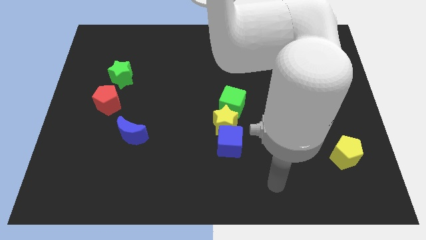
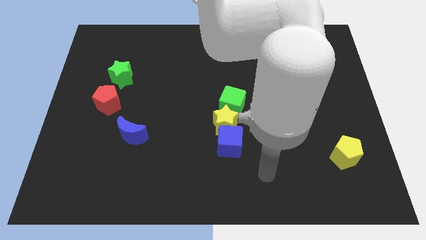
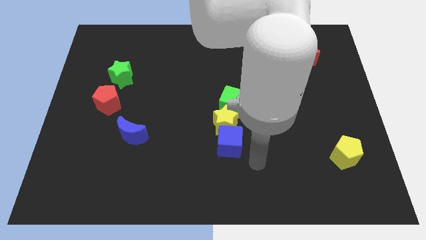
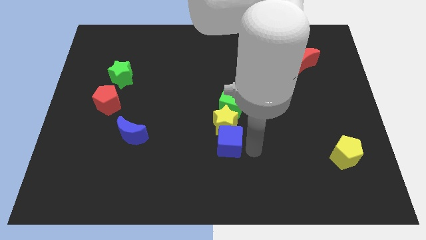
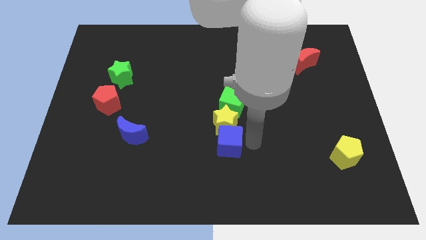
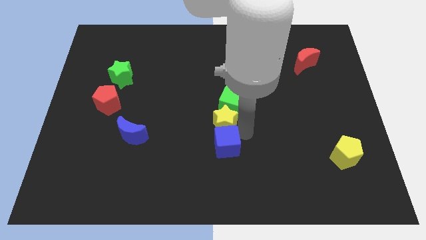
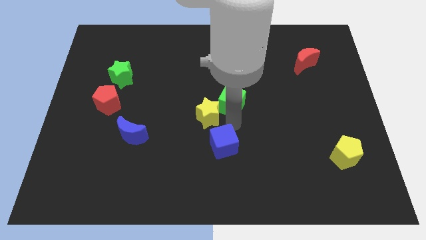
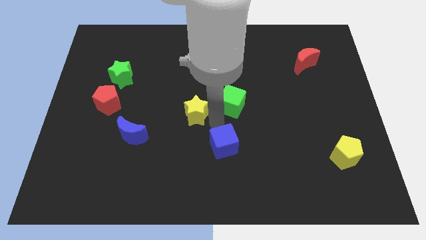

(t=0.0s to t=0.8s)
pull the blue cube apart from the yellow star

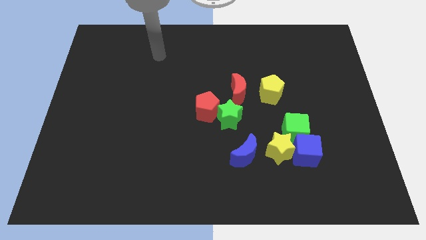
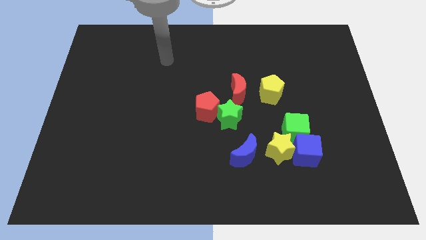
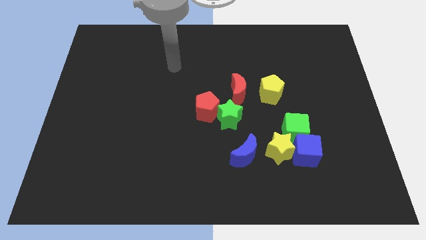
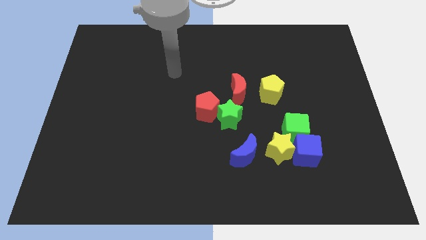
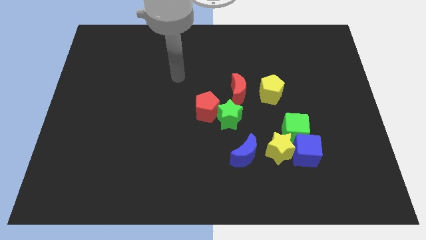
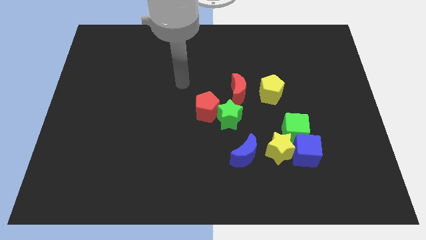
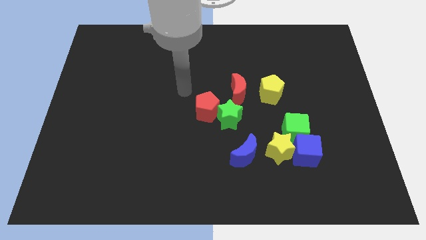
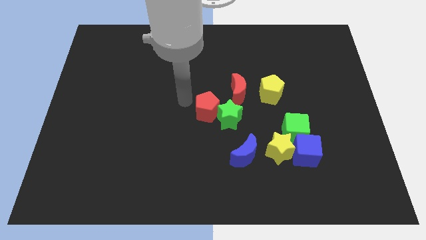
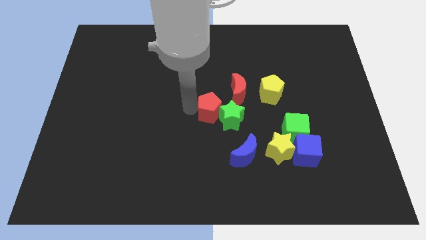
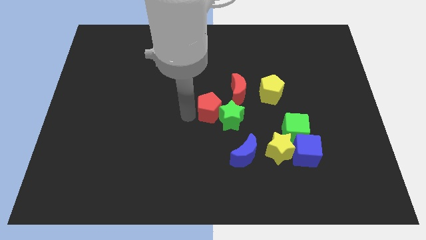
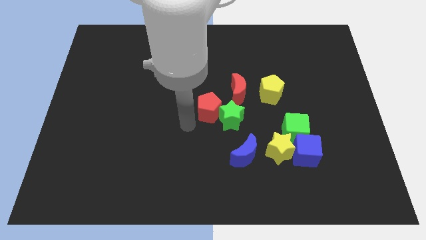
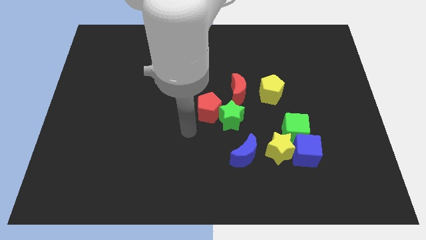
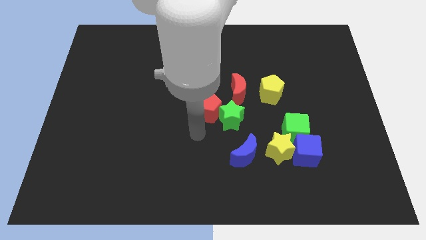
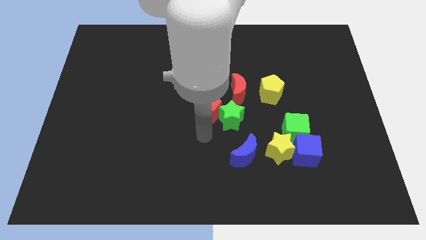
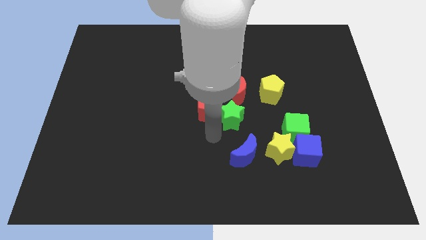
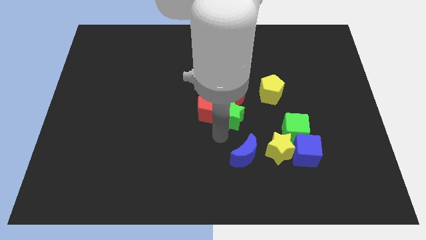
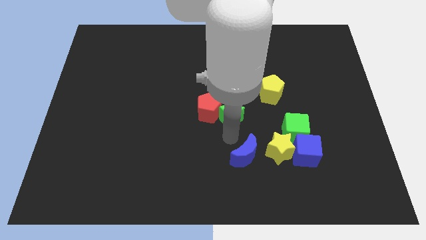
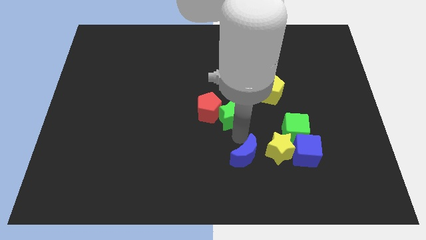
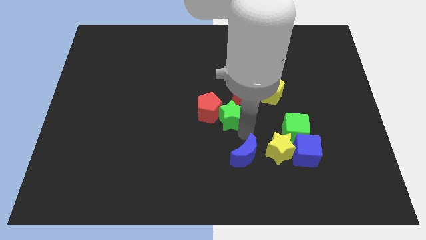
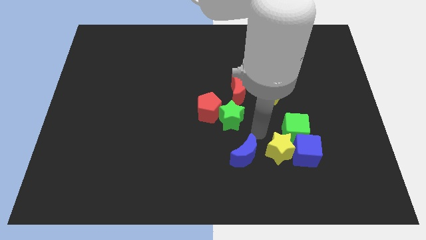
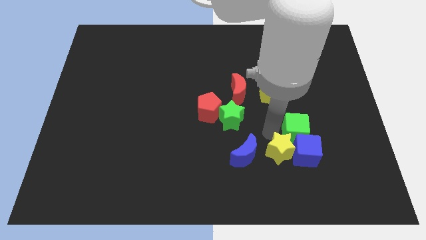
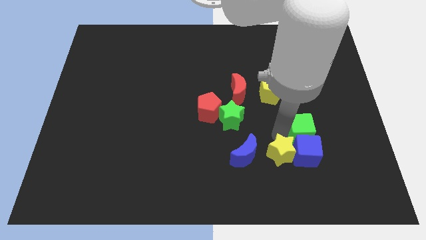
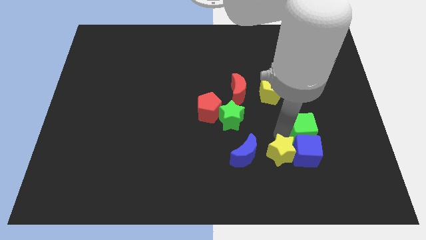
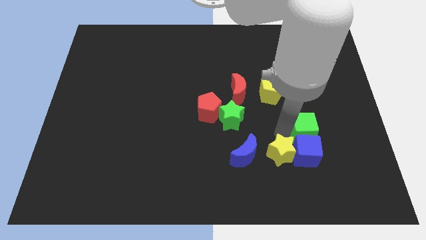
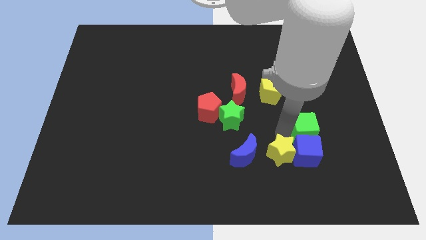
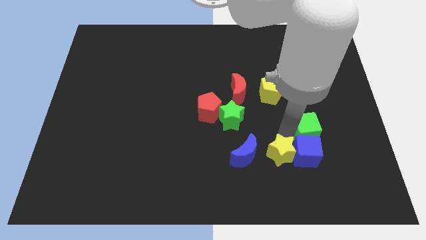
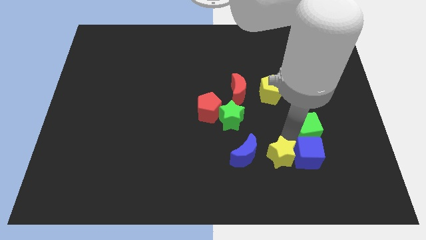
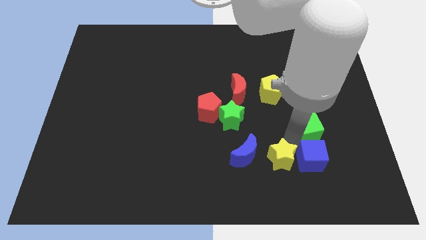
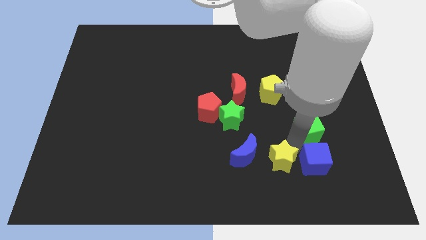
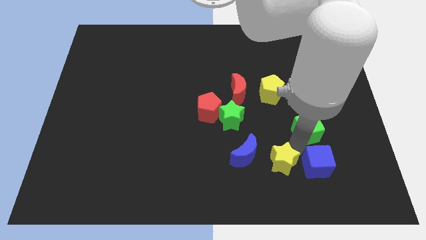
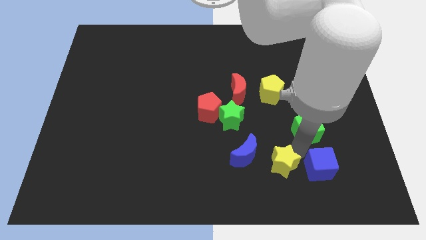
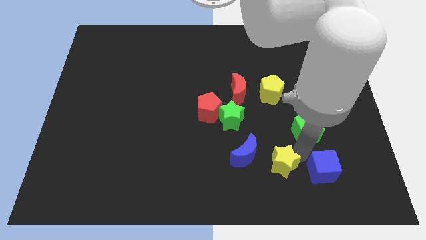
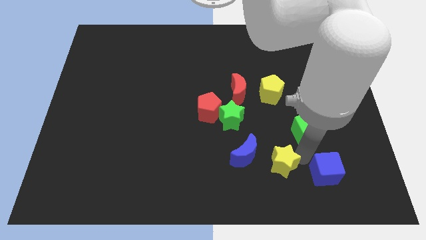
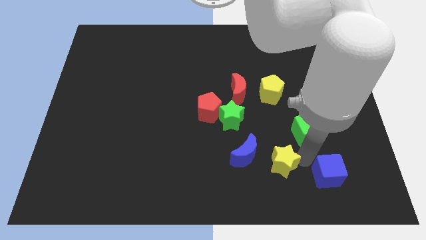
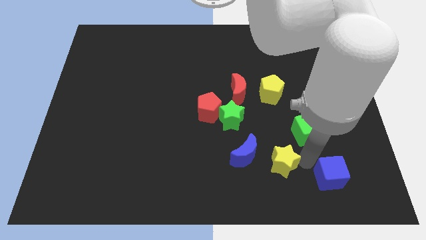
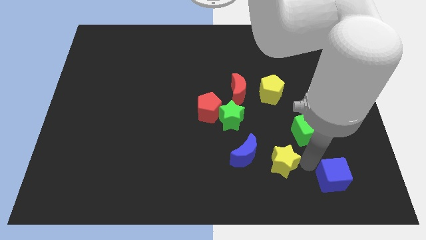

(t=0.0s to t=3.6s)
pull the blue cube apart from the yellow star and green cube

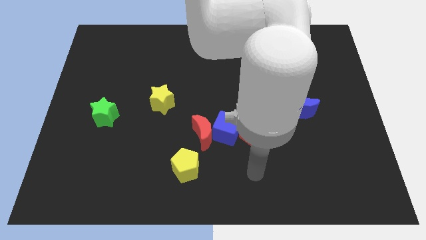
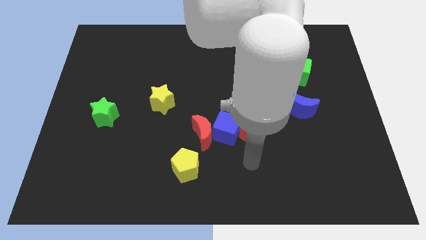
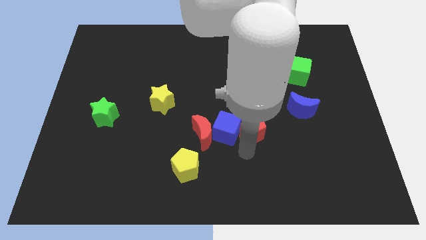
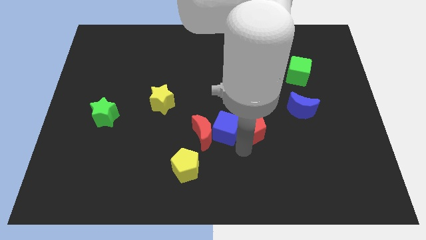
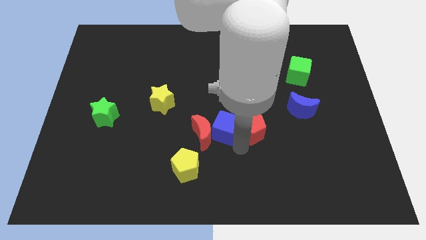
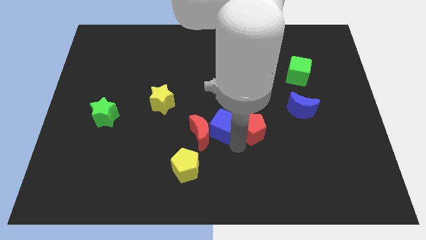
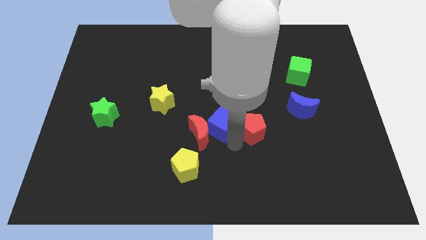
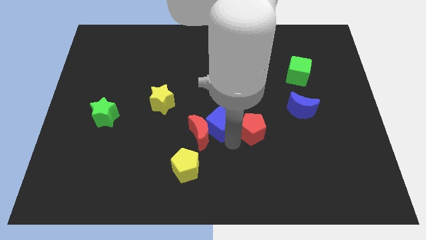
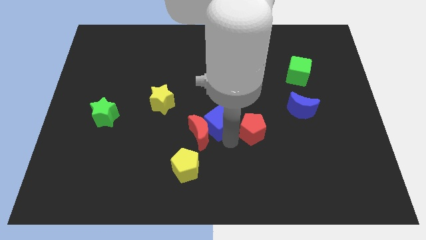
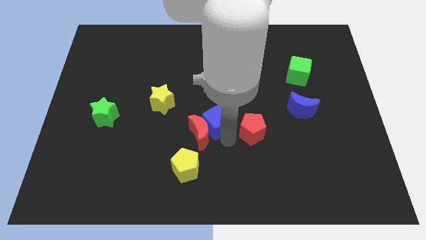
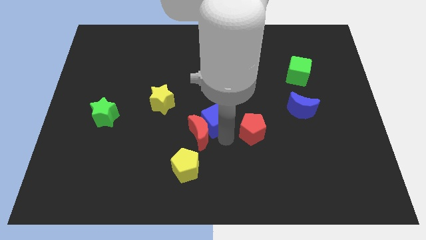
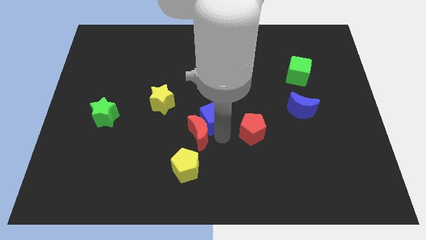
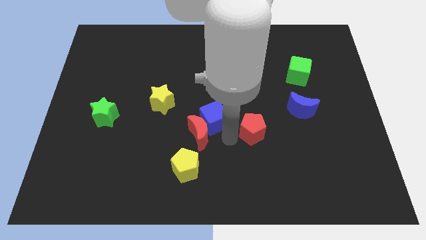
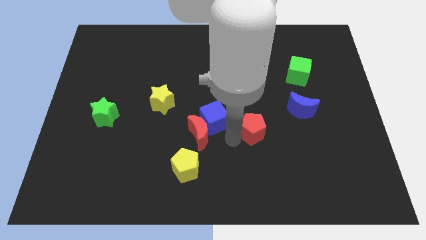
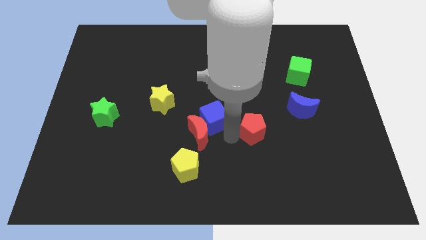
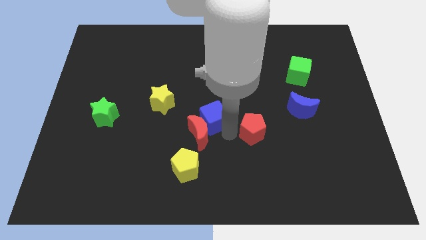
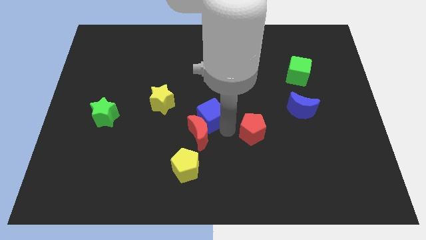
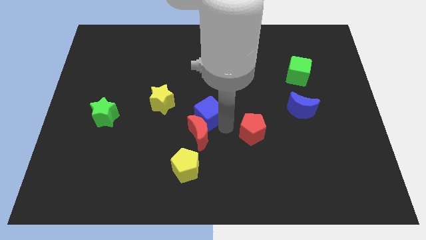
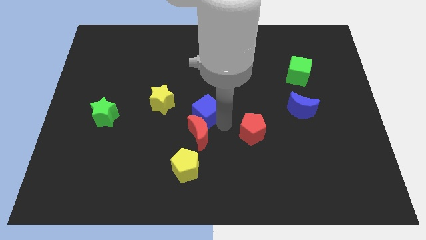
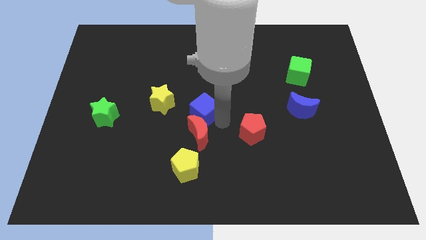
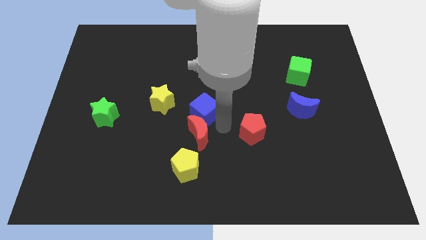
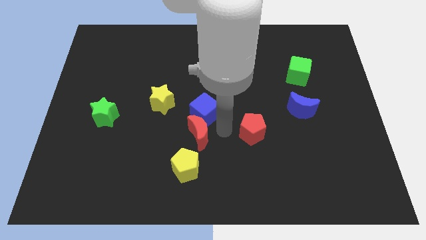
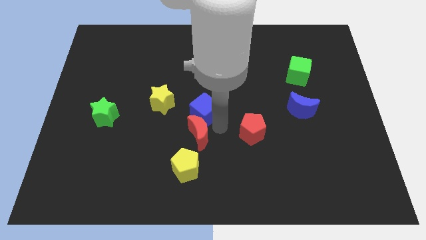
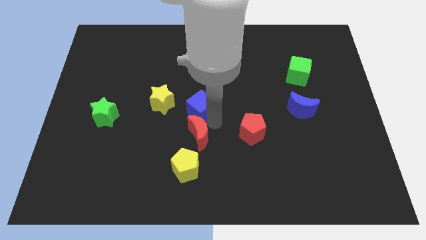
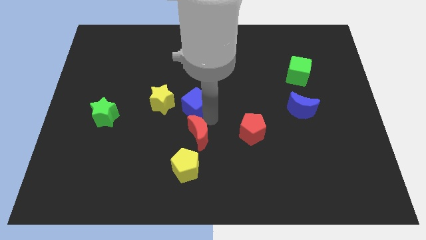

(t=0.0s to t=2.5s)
pull the blue cube apart from the red moon and red pentagon

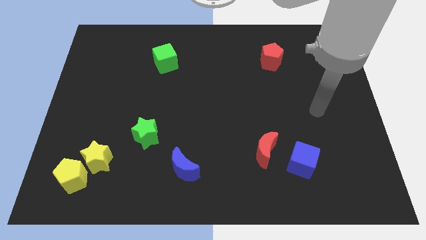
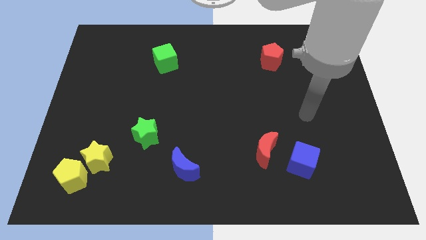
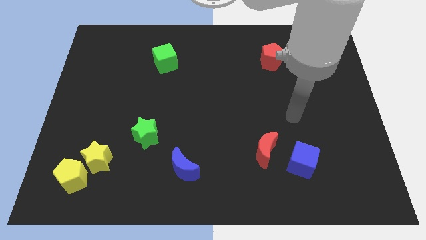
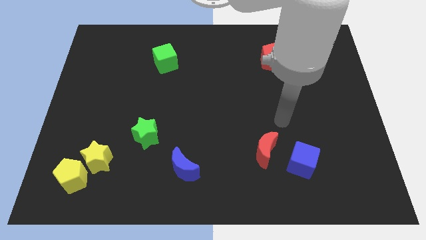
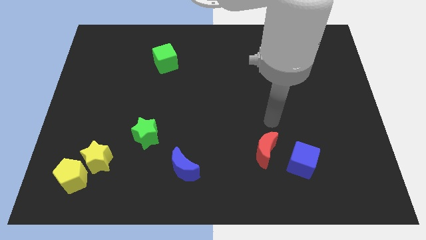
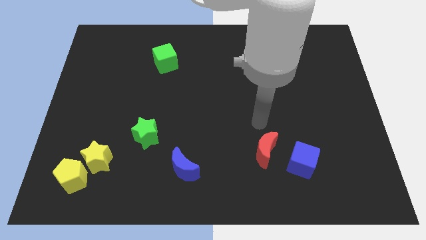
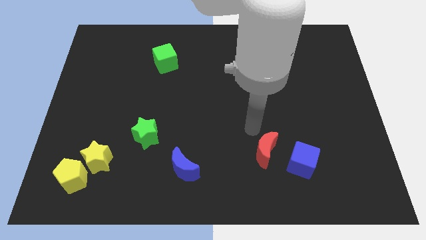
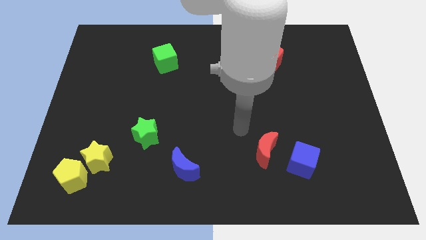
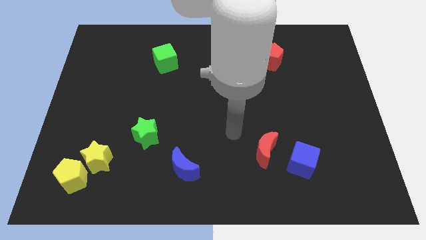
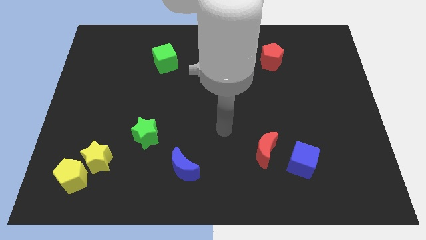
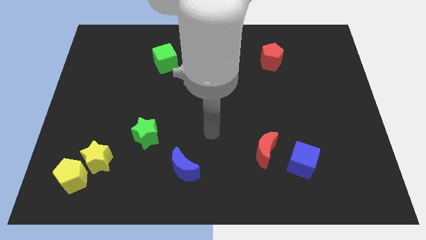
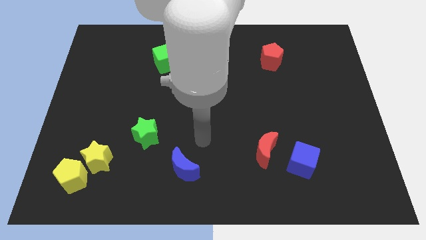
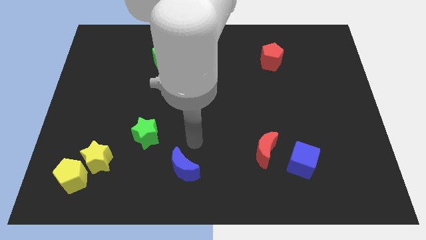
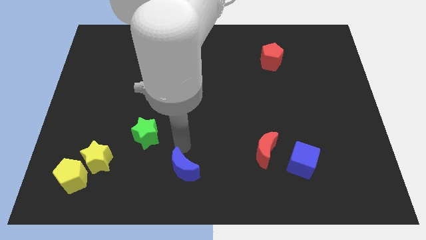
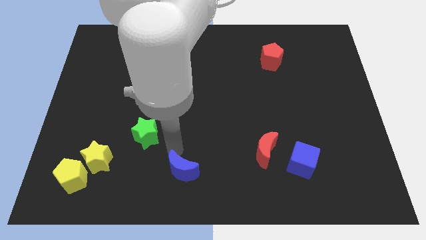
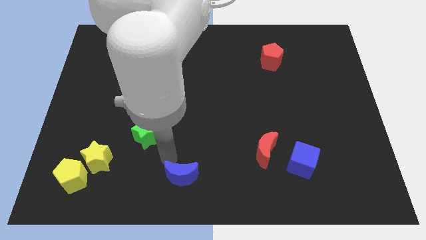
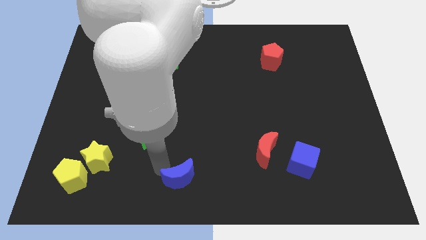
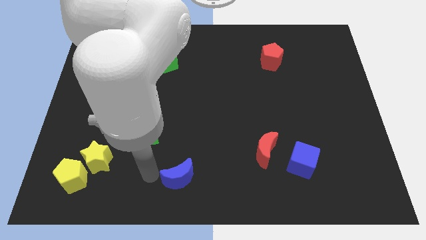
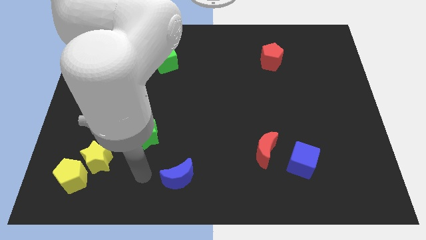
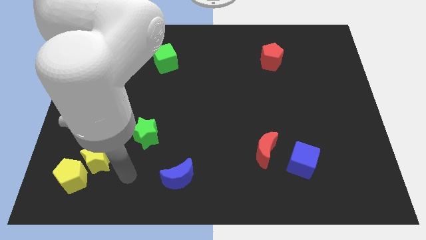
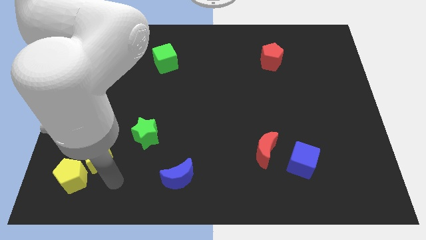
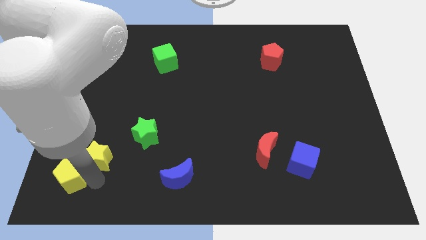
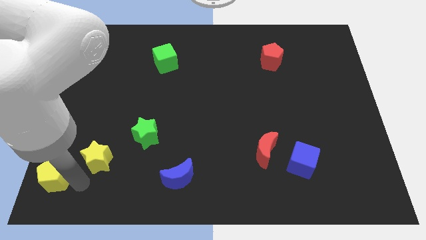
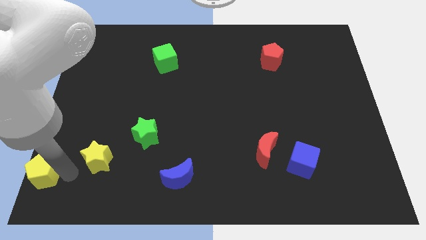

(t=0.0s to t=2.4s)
move the yellow star away from the yellow pentagon
